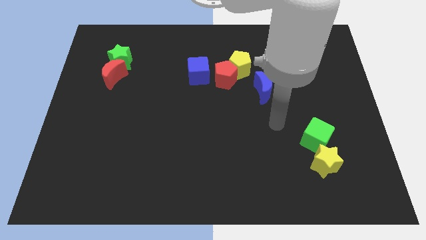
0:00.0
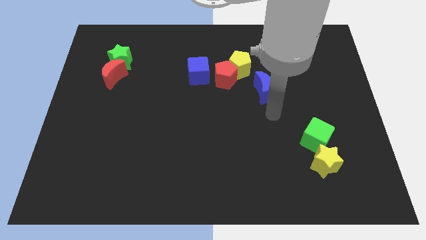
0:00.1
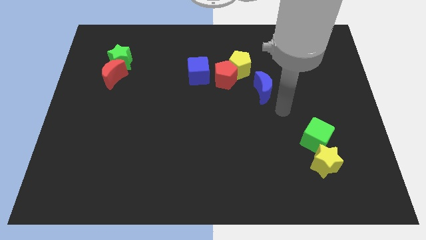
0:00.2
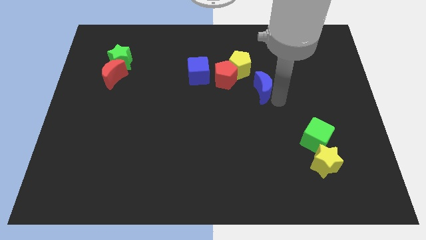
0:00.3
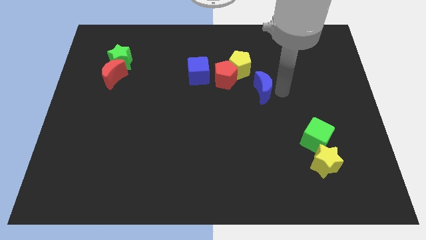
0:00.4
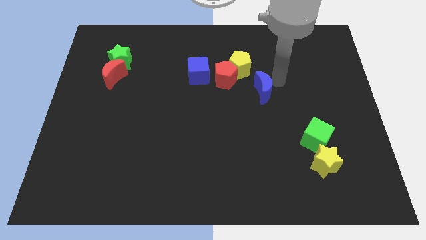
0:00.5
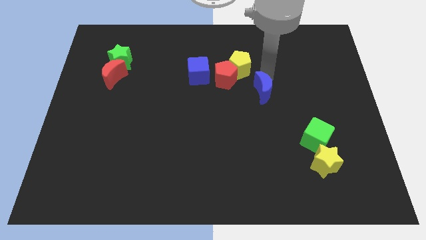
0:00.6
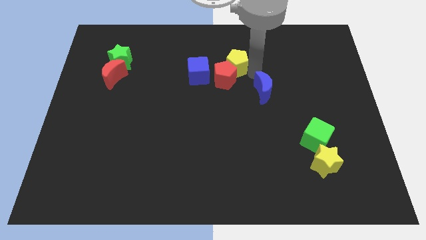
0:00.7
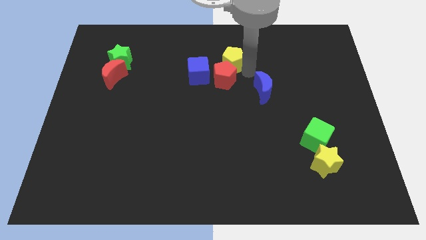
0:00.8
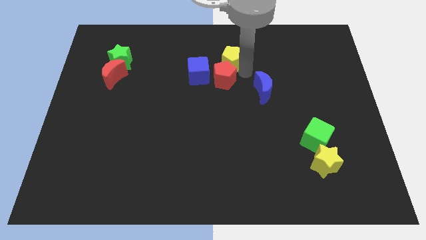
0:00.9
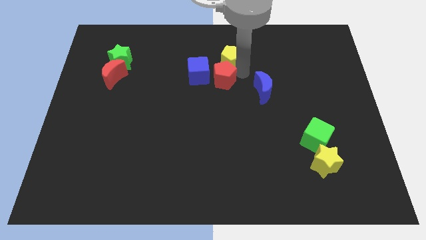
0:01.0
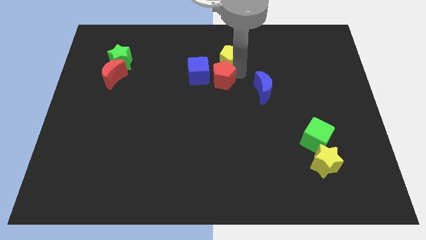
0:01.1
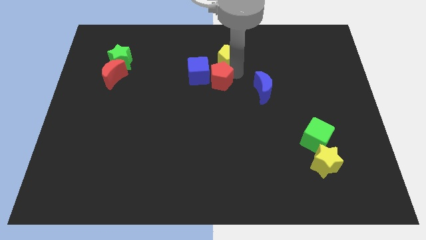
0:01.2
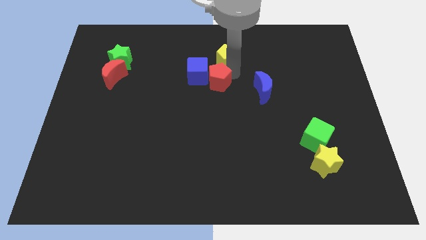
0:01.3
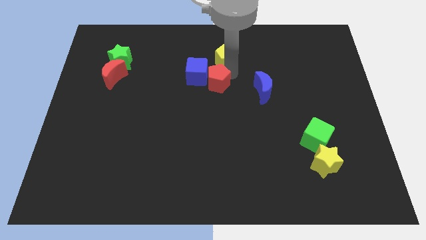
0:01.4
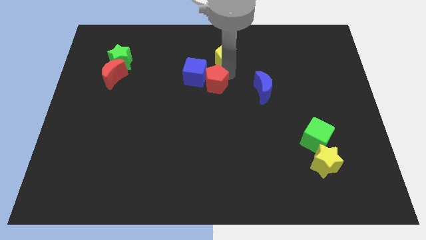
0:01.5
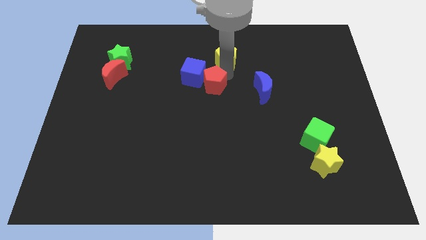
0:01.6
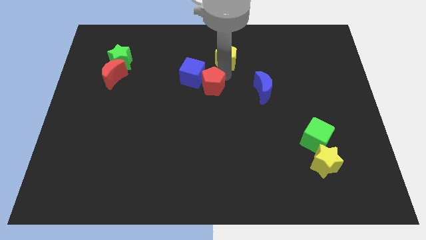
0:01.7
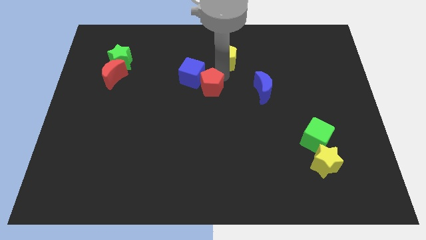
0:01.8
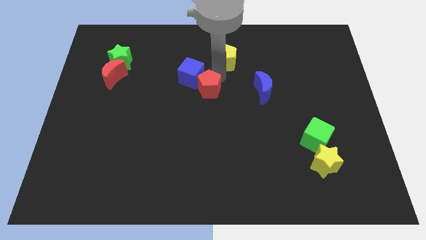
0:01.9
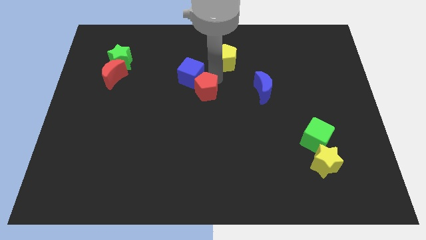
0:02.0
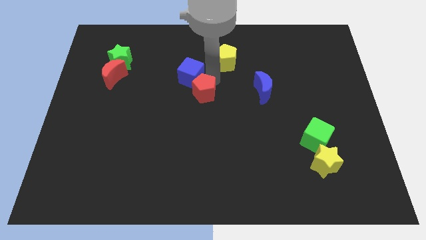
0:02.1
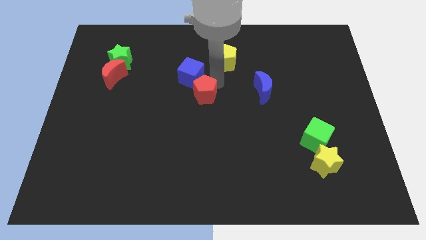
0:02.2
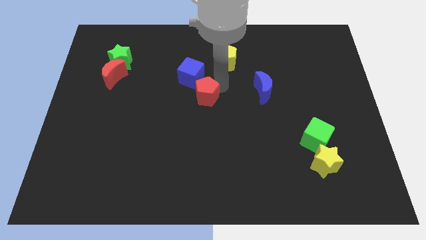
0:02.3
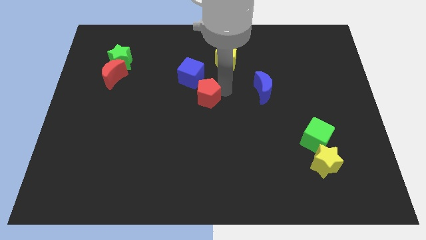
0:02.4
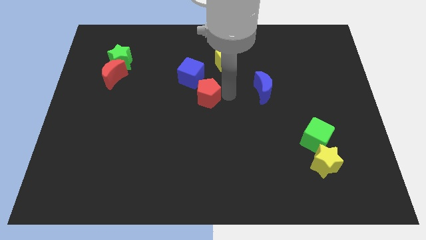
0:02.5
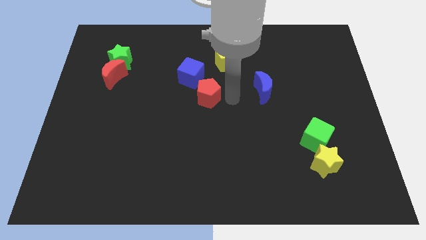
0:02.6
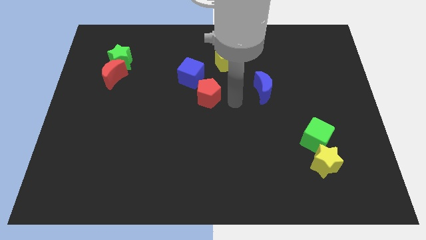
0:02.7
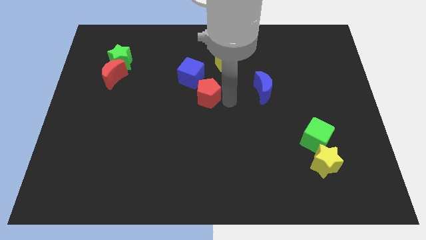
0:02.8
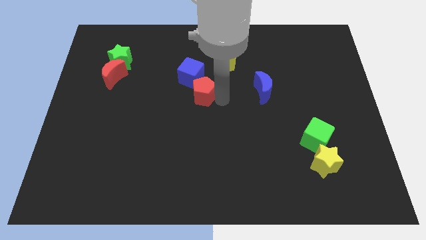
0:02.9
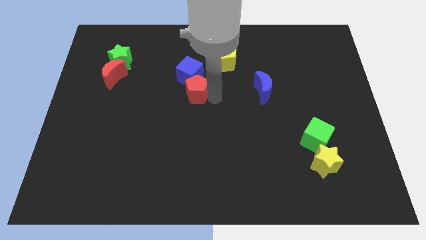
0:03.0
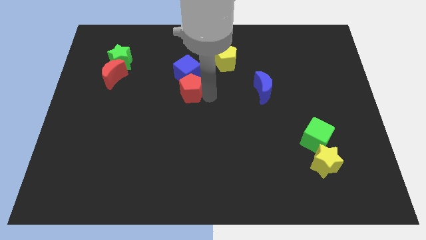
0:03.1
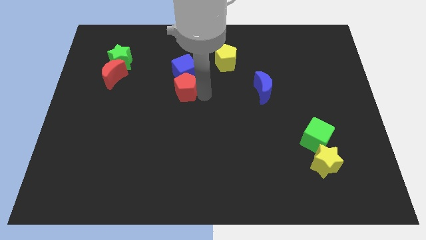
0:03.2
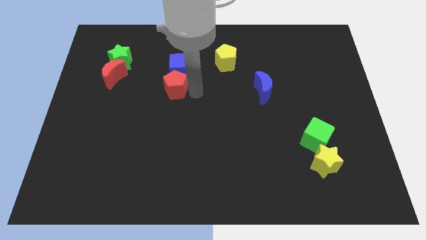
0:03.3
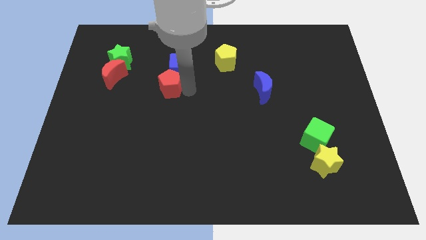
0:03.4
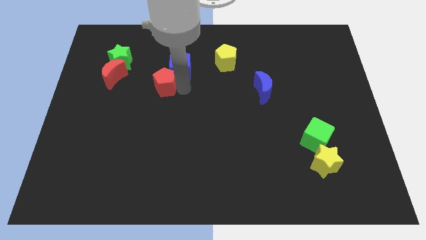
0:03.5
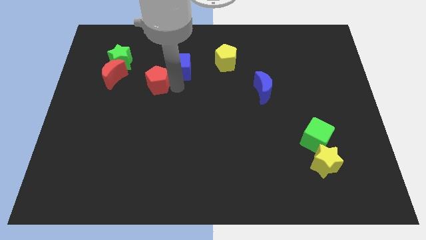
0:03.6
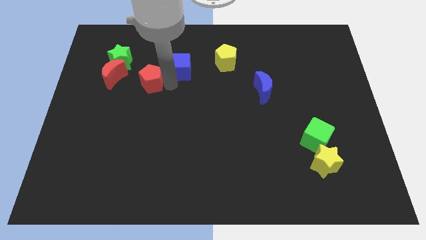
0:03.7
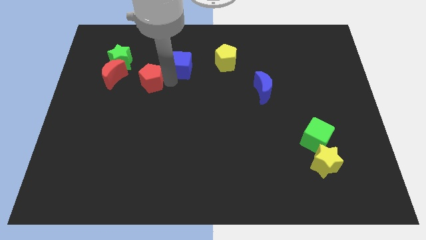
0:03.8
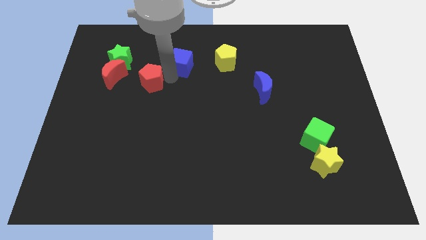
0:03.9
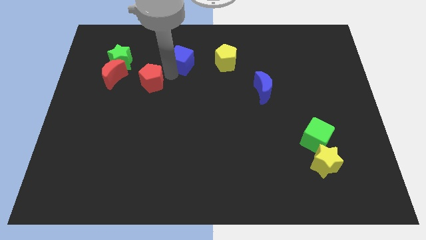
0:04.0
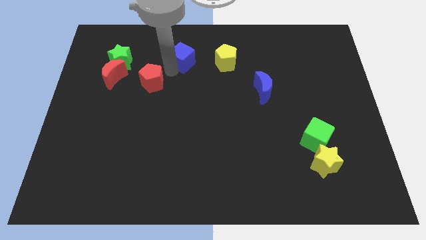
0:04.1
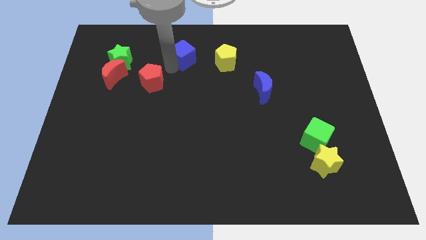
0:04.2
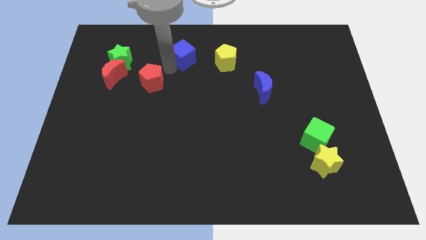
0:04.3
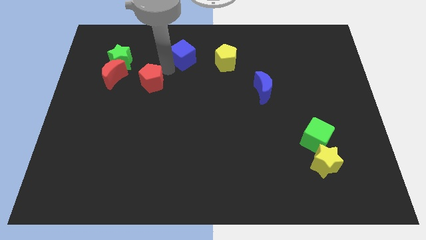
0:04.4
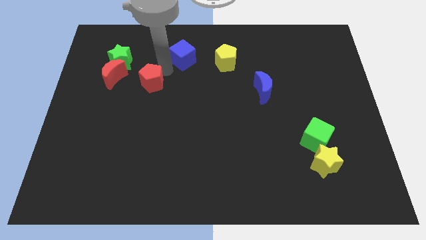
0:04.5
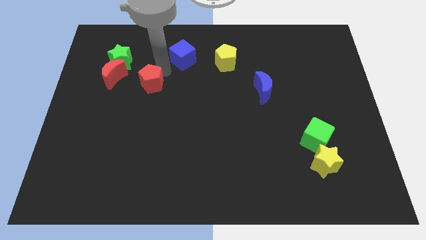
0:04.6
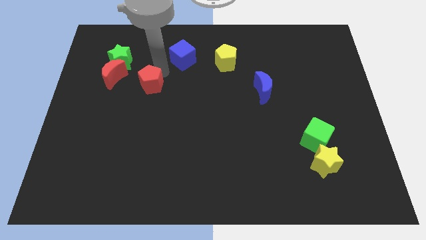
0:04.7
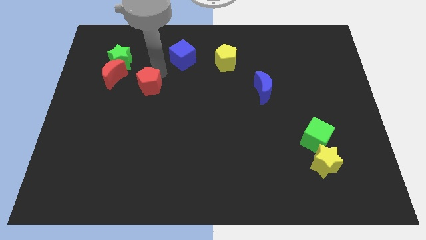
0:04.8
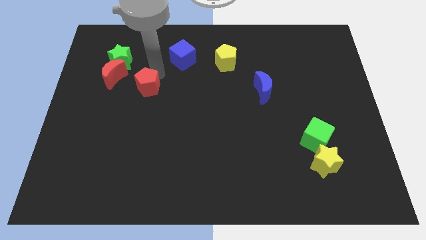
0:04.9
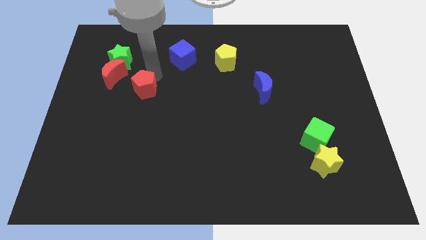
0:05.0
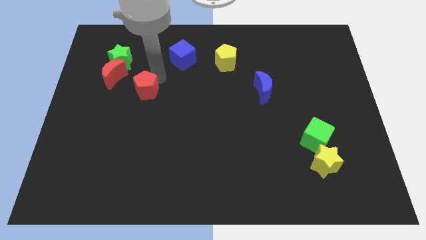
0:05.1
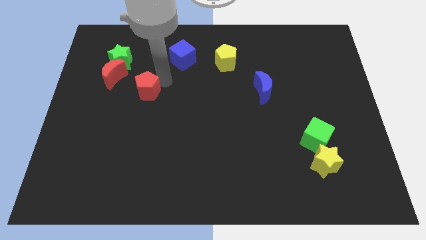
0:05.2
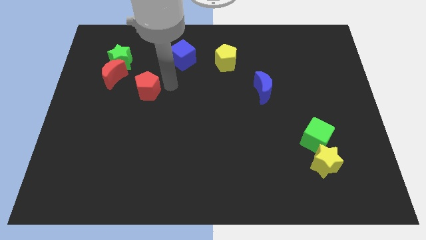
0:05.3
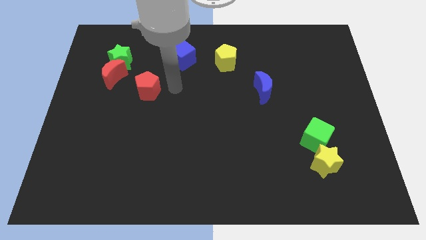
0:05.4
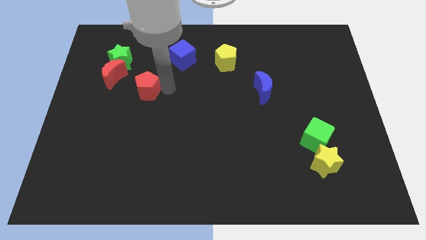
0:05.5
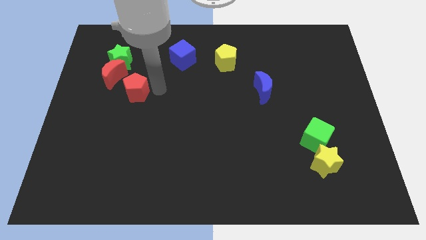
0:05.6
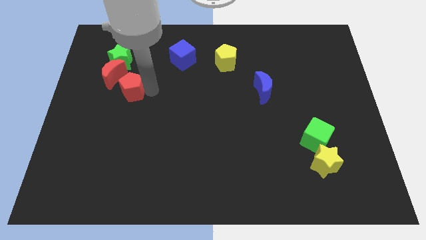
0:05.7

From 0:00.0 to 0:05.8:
slide the red pentagon below the green star

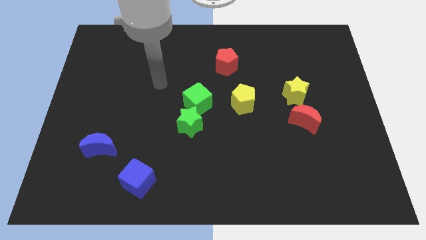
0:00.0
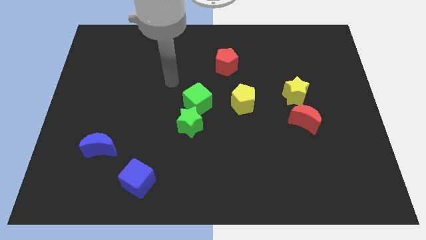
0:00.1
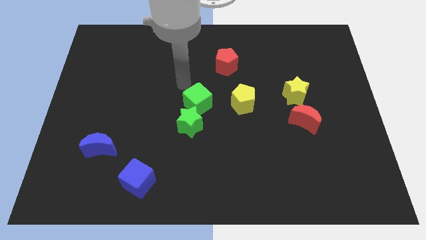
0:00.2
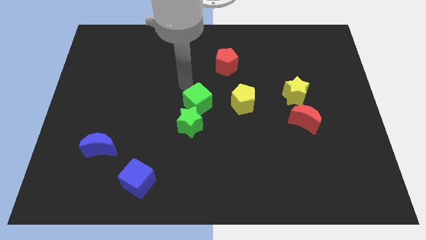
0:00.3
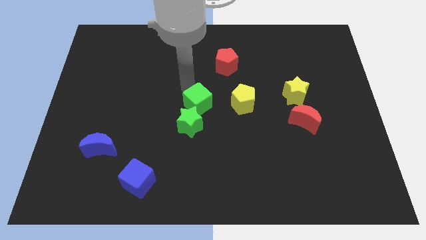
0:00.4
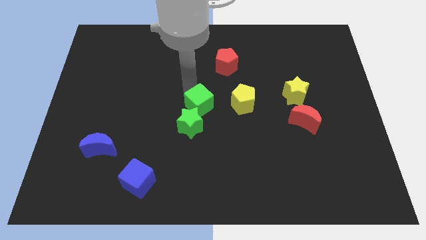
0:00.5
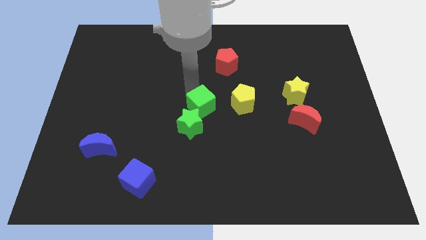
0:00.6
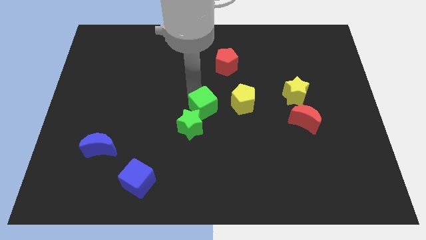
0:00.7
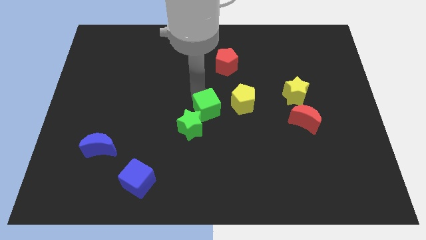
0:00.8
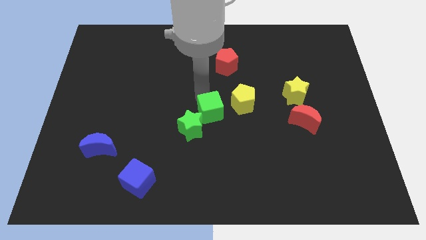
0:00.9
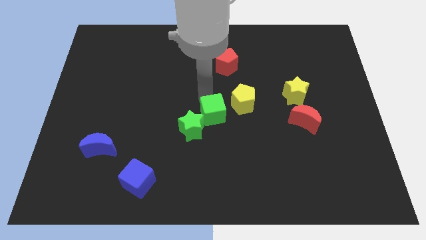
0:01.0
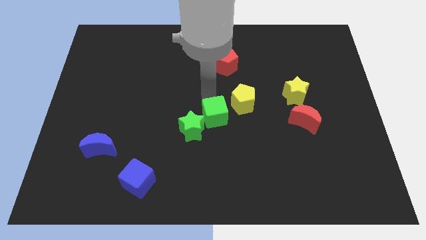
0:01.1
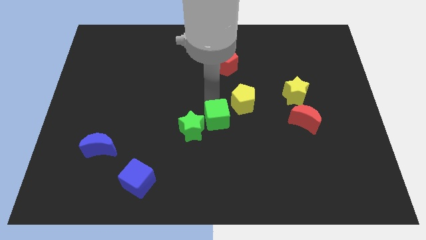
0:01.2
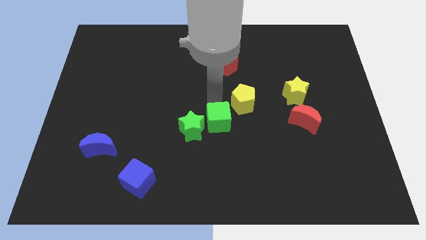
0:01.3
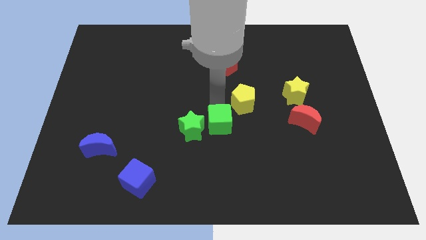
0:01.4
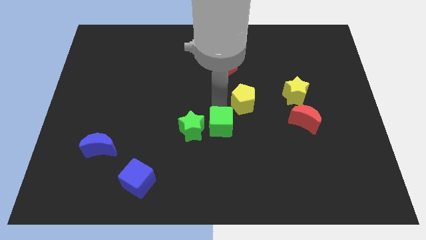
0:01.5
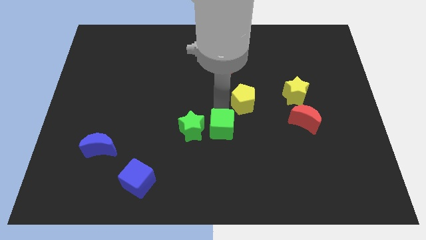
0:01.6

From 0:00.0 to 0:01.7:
push the green cube diagonally down and to the right of the green star
